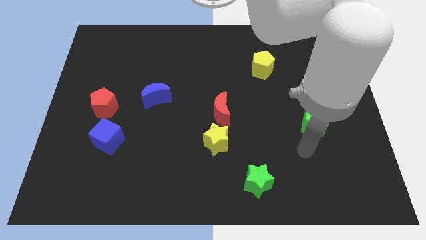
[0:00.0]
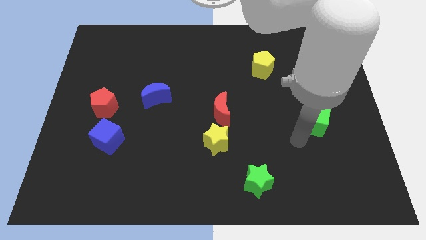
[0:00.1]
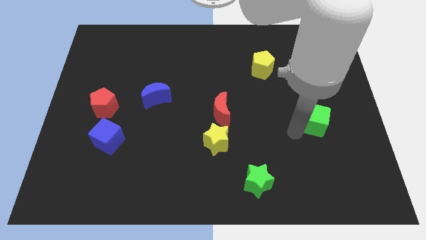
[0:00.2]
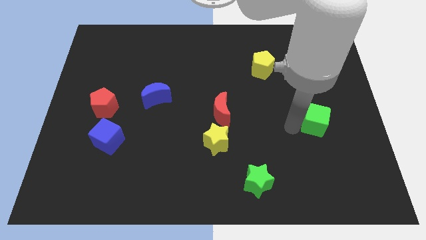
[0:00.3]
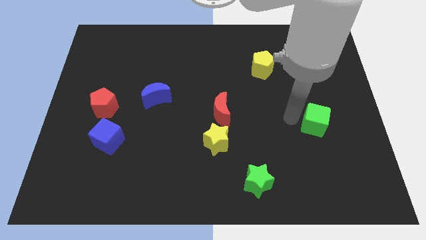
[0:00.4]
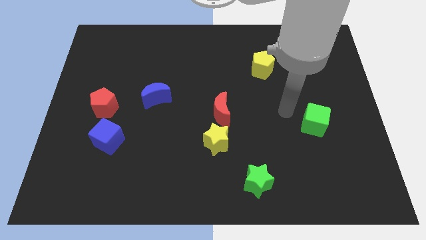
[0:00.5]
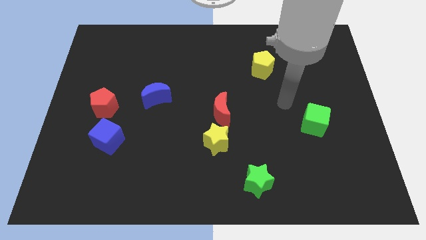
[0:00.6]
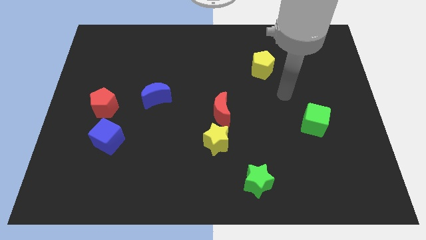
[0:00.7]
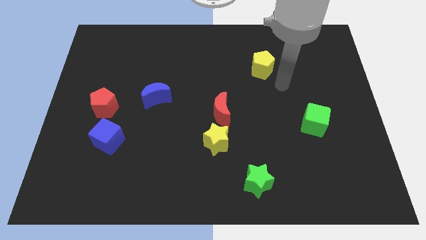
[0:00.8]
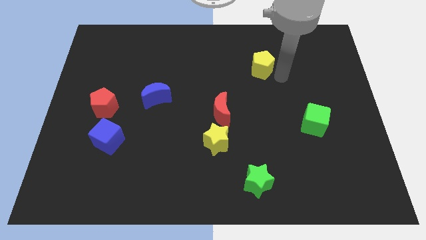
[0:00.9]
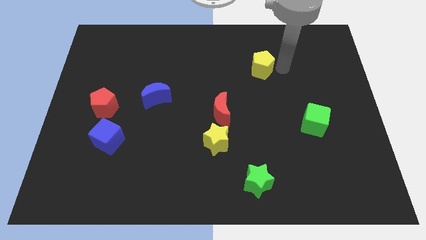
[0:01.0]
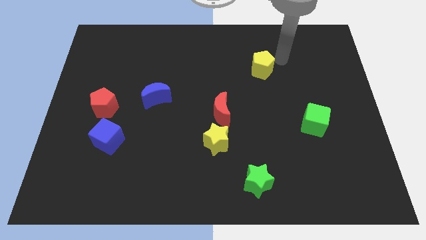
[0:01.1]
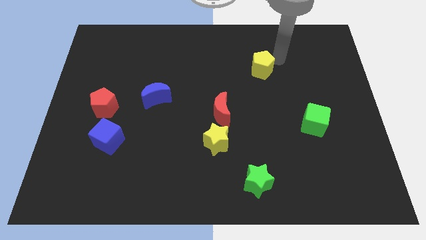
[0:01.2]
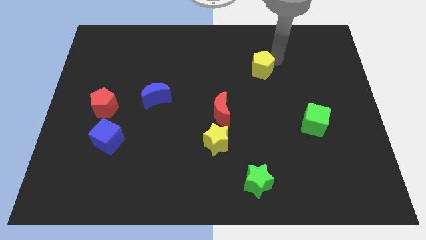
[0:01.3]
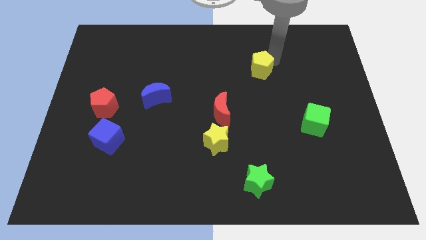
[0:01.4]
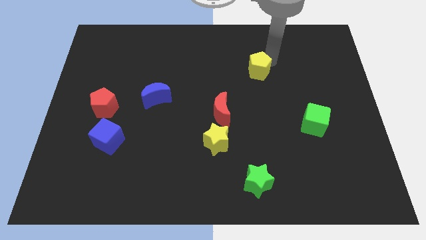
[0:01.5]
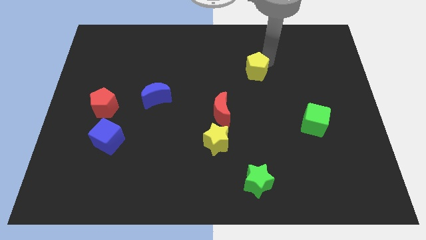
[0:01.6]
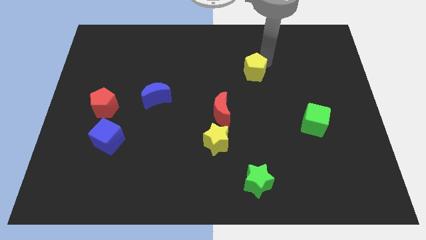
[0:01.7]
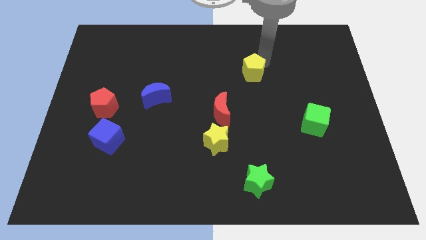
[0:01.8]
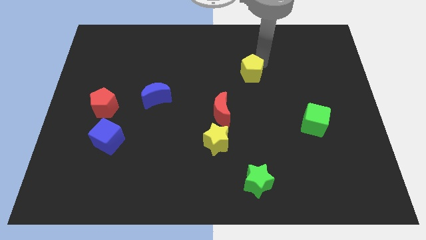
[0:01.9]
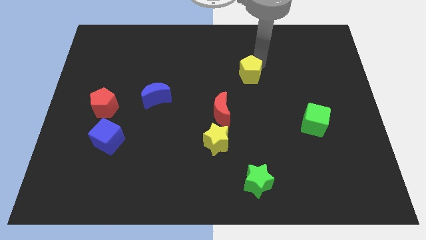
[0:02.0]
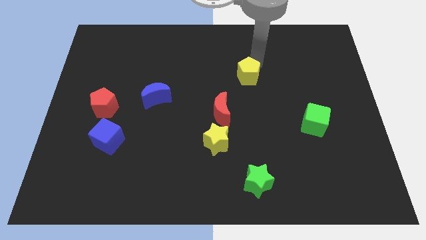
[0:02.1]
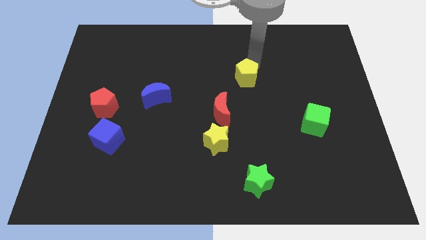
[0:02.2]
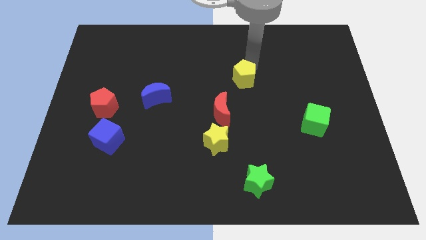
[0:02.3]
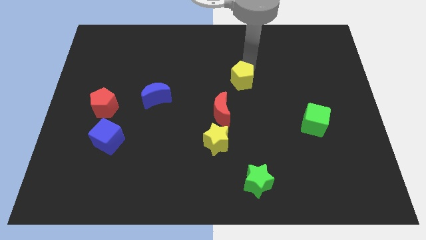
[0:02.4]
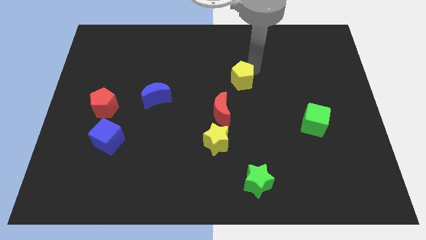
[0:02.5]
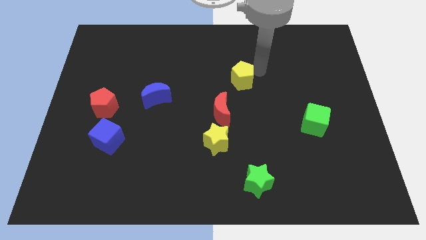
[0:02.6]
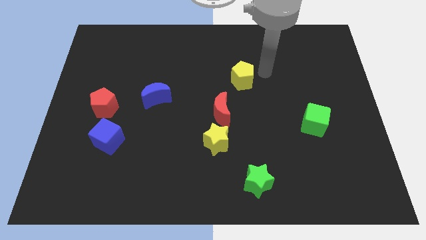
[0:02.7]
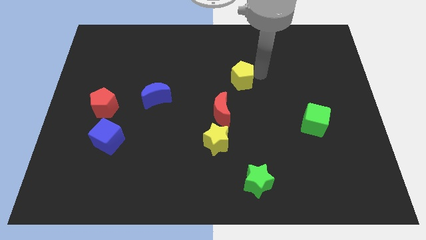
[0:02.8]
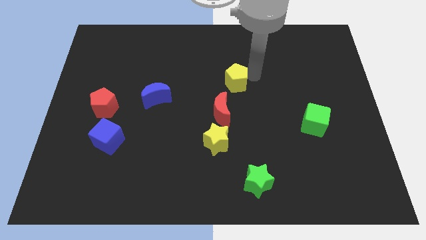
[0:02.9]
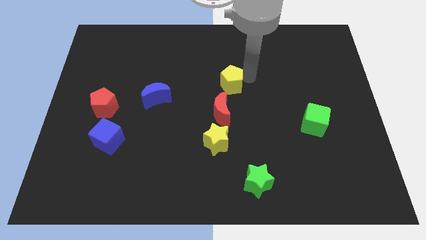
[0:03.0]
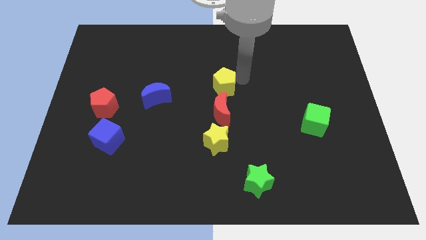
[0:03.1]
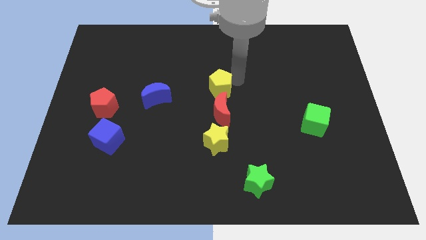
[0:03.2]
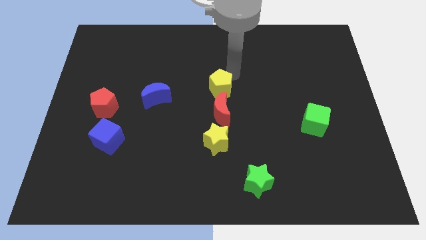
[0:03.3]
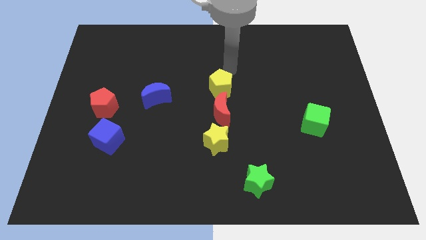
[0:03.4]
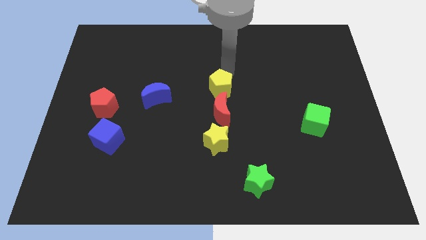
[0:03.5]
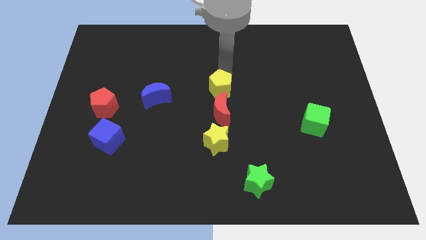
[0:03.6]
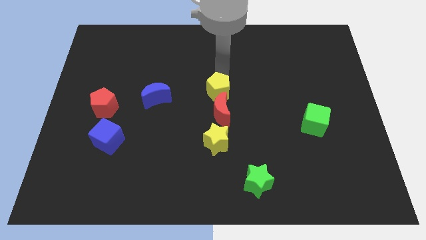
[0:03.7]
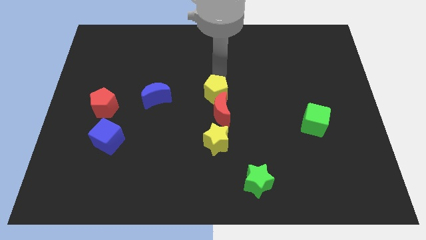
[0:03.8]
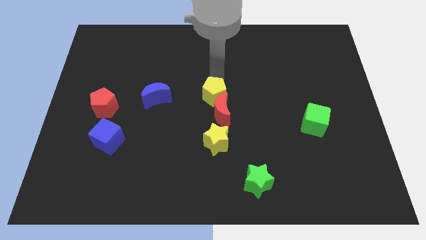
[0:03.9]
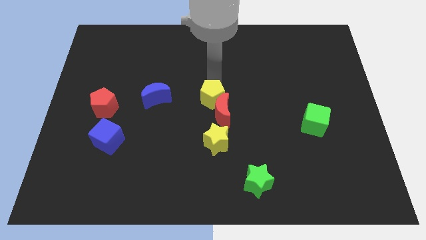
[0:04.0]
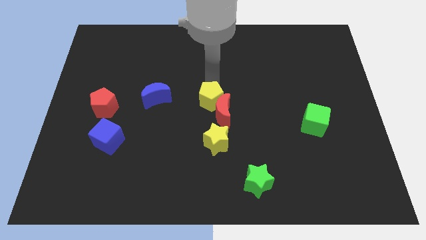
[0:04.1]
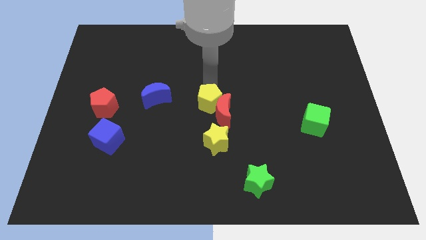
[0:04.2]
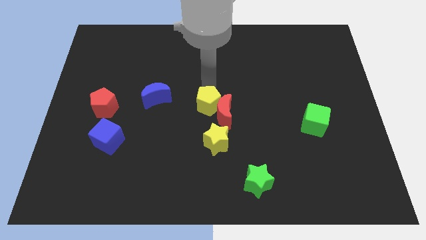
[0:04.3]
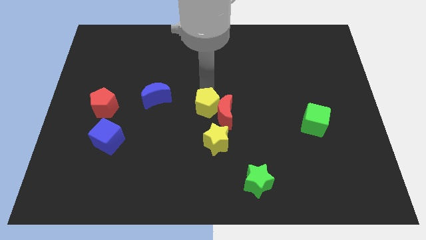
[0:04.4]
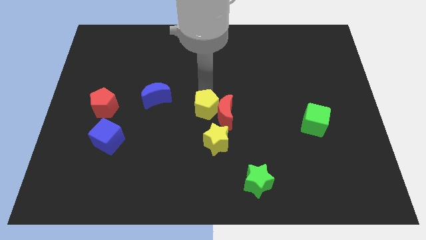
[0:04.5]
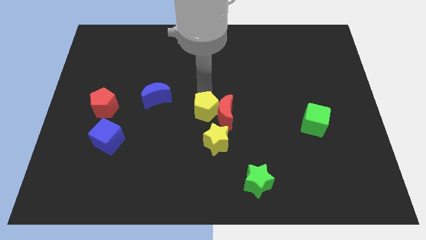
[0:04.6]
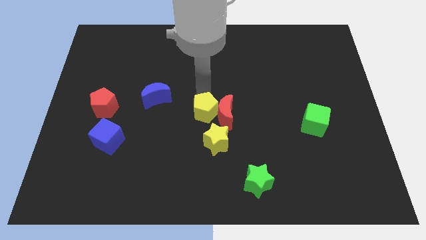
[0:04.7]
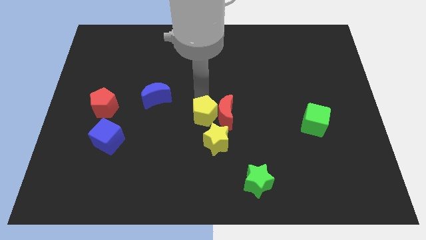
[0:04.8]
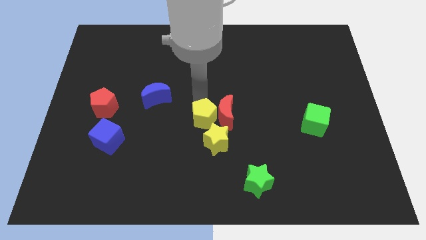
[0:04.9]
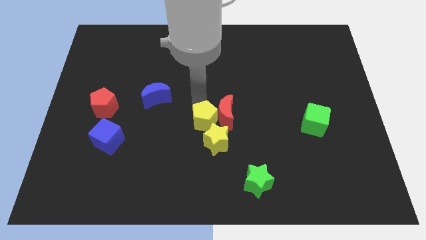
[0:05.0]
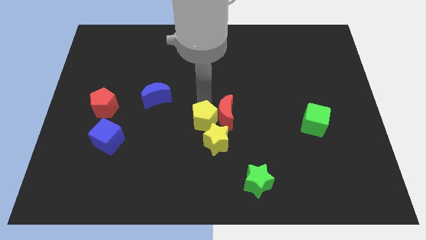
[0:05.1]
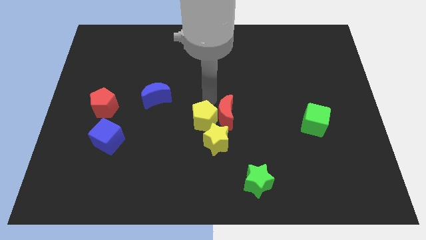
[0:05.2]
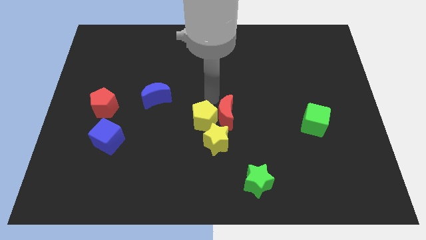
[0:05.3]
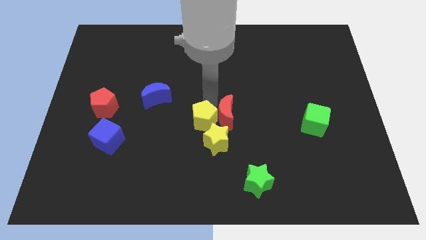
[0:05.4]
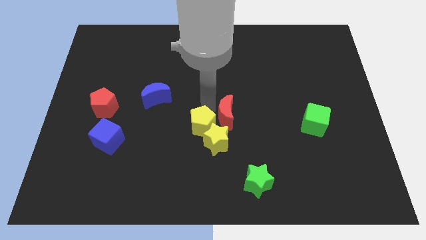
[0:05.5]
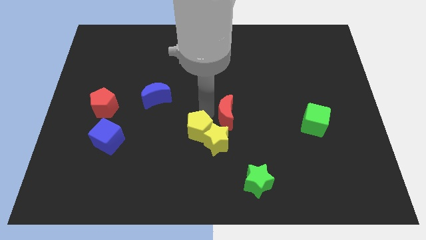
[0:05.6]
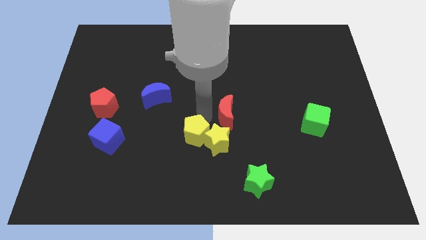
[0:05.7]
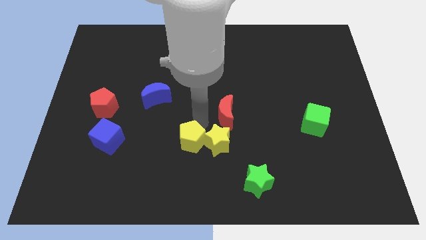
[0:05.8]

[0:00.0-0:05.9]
push the yellow pentagon diagonally down and to the left of the yellow star

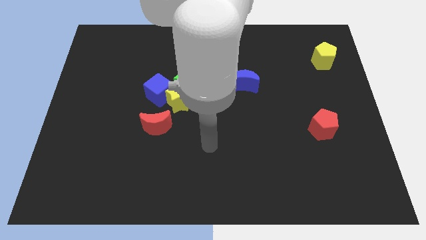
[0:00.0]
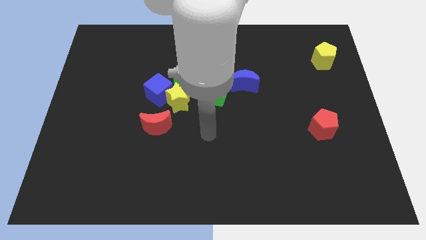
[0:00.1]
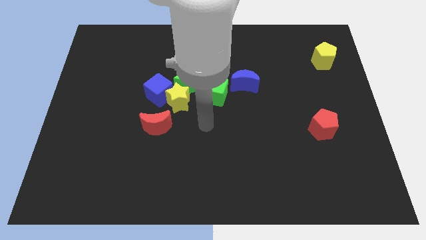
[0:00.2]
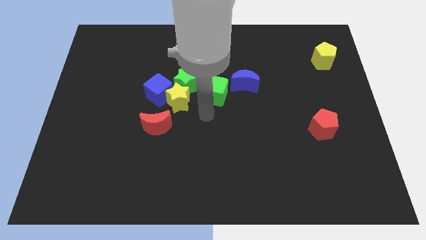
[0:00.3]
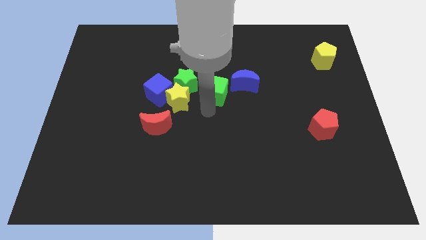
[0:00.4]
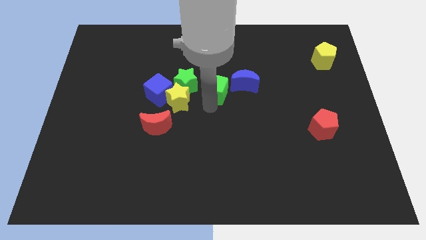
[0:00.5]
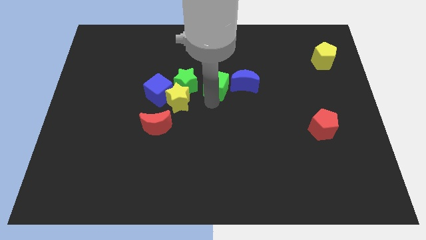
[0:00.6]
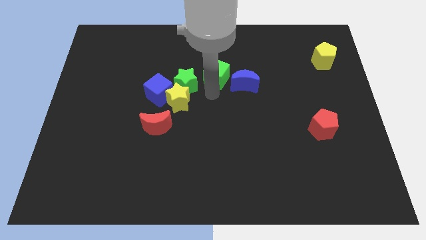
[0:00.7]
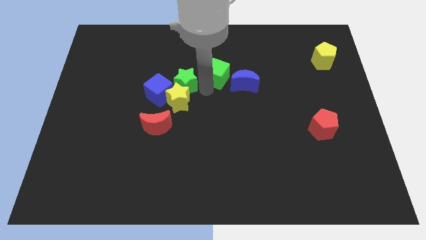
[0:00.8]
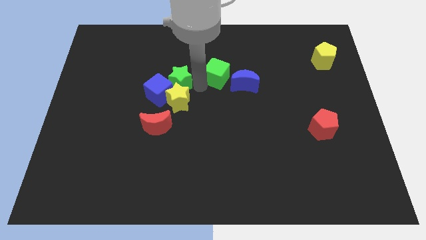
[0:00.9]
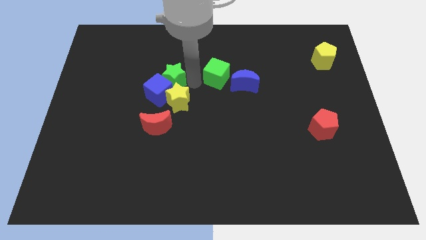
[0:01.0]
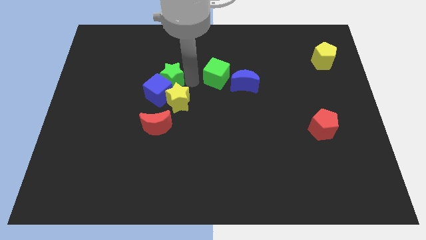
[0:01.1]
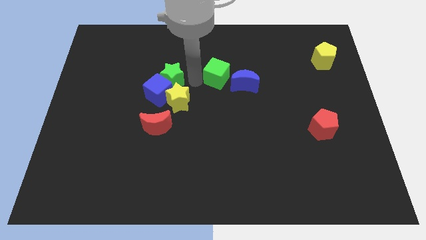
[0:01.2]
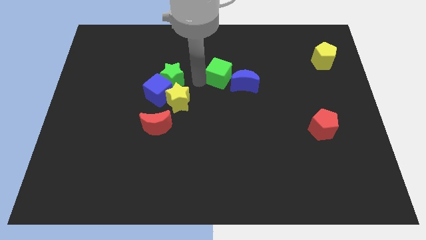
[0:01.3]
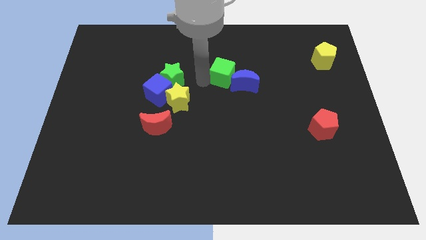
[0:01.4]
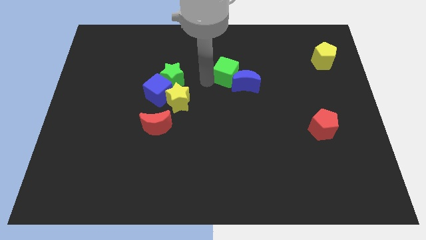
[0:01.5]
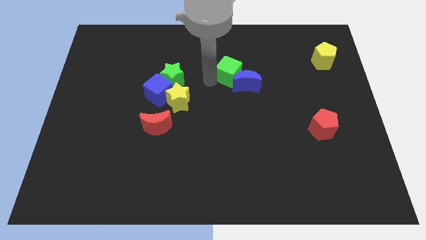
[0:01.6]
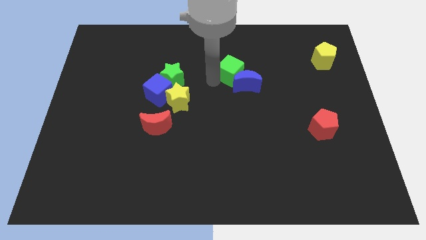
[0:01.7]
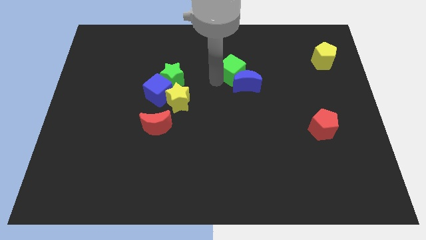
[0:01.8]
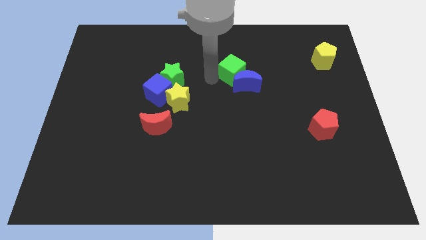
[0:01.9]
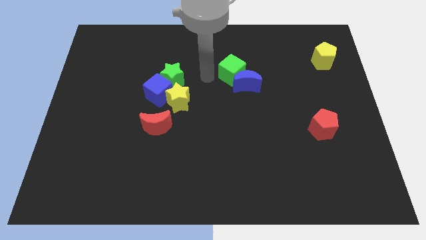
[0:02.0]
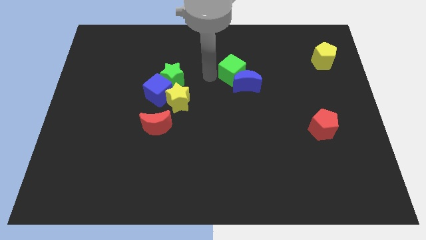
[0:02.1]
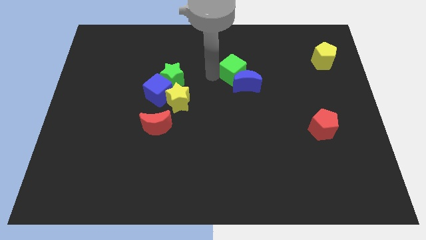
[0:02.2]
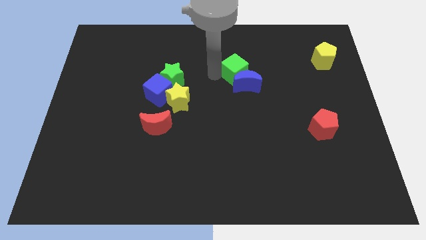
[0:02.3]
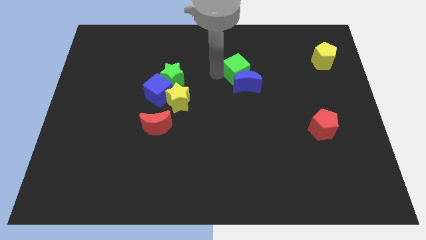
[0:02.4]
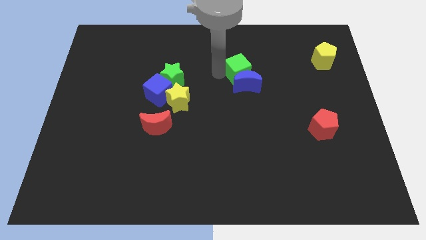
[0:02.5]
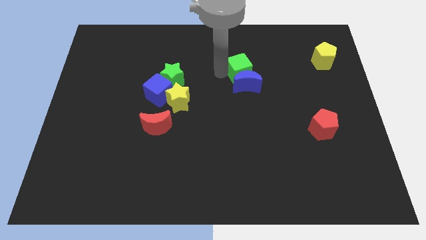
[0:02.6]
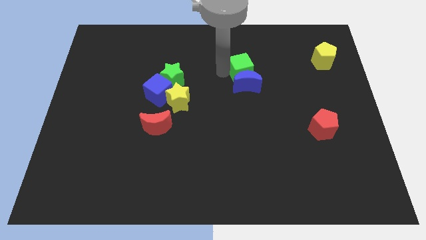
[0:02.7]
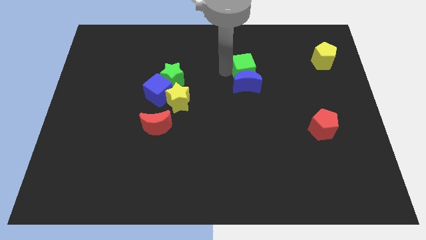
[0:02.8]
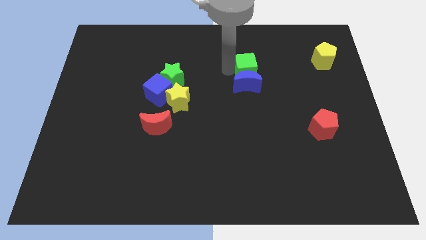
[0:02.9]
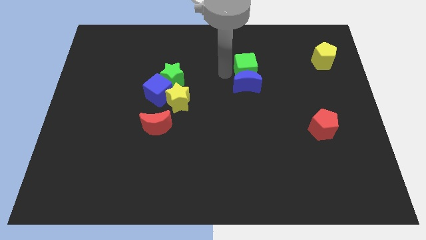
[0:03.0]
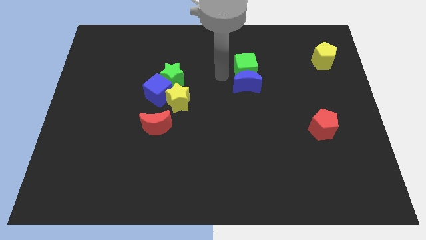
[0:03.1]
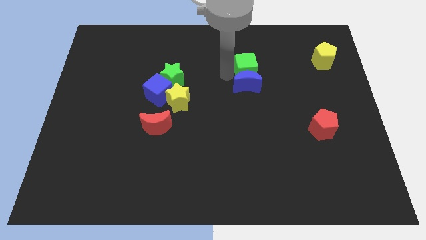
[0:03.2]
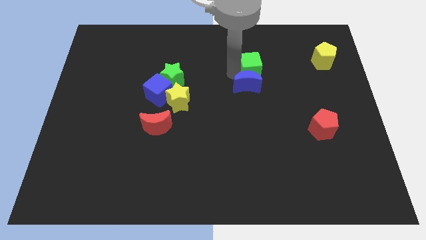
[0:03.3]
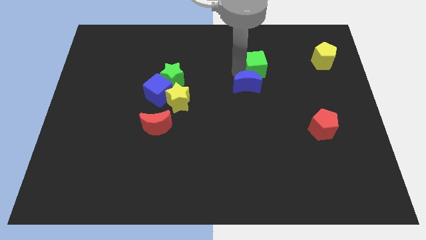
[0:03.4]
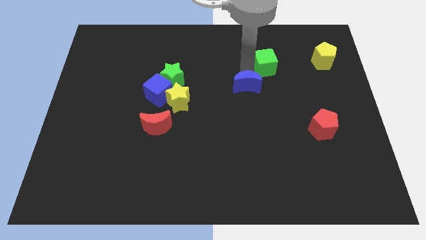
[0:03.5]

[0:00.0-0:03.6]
move the green cube to the left of the yellow pentagon
